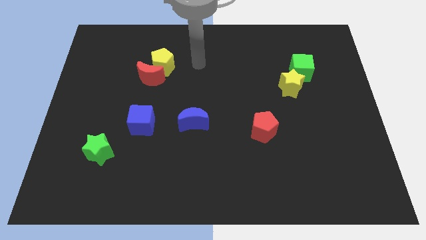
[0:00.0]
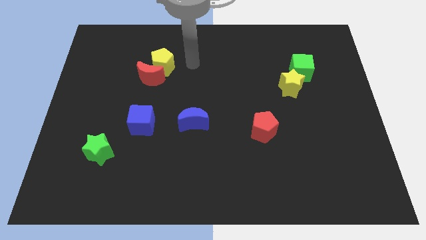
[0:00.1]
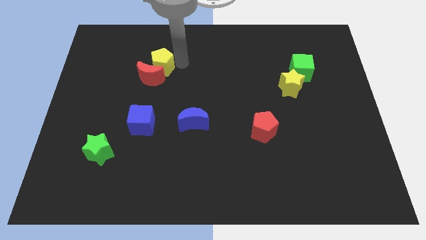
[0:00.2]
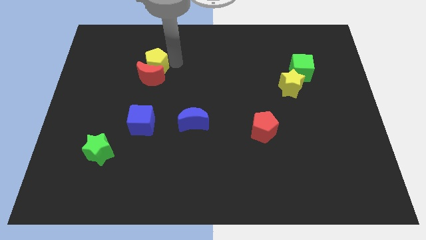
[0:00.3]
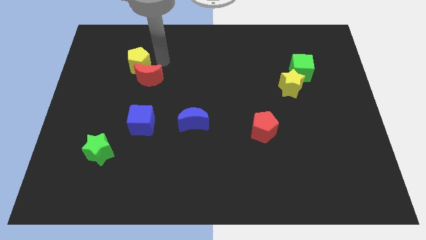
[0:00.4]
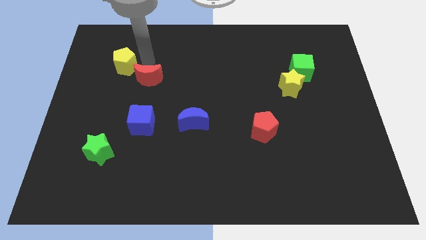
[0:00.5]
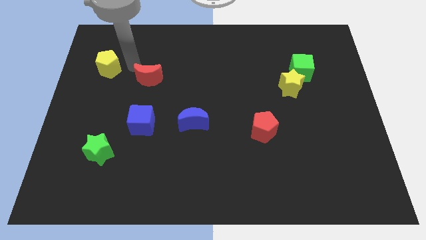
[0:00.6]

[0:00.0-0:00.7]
move the red moon away from the yellow pentagon

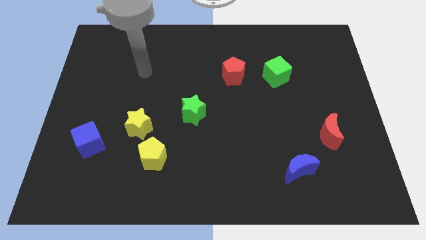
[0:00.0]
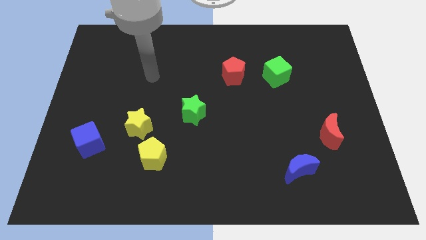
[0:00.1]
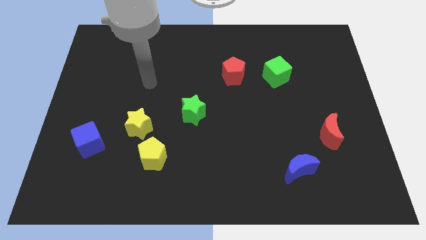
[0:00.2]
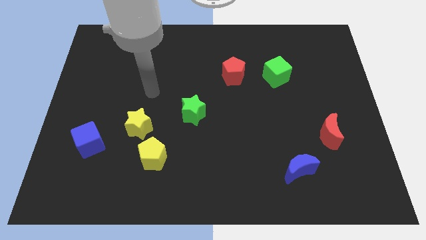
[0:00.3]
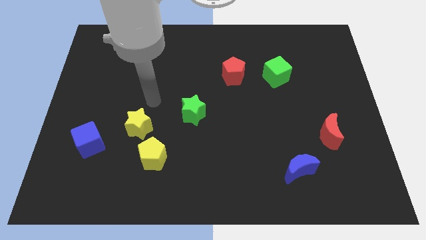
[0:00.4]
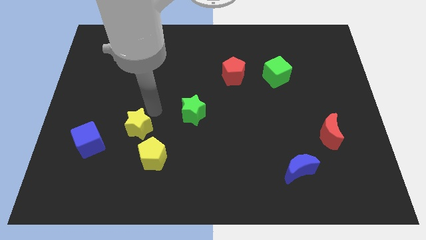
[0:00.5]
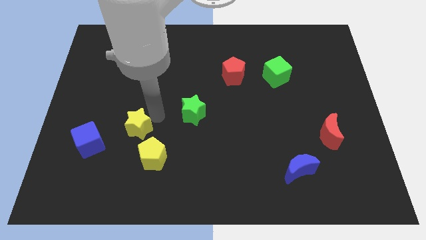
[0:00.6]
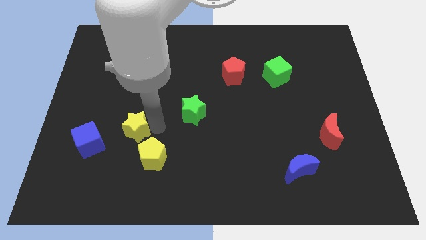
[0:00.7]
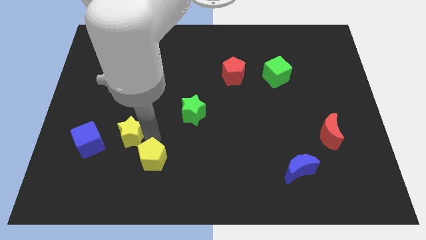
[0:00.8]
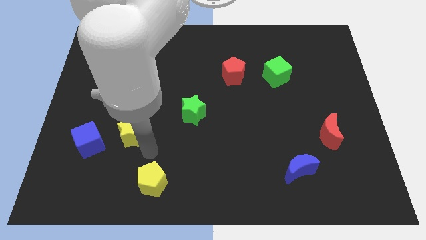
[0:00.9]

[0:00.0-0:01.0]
separate the yellow star from the yellow pentagon

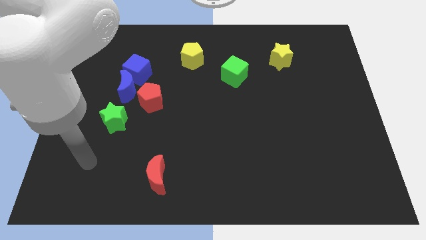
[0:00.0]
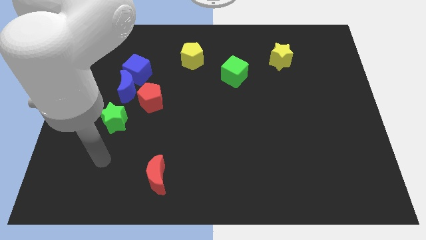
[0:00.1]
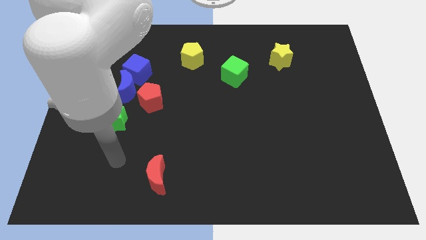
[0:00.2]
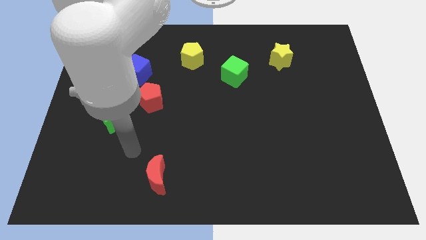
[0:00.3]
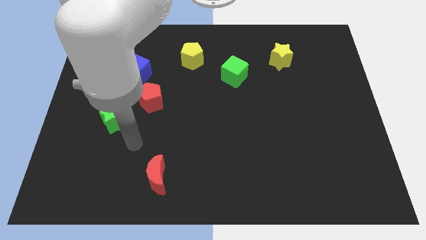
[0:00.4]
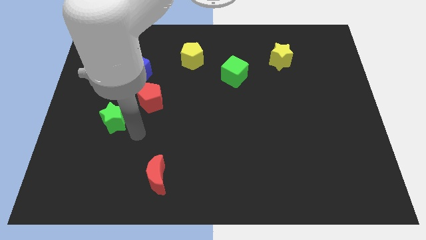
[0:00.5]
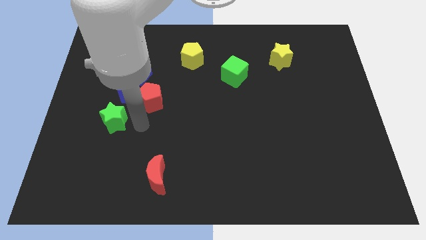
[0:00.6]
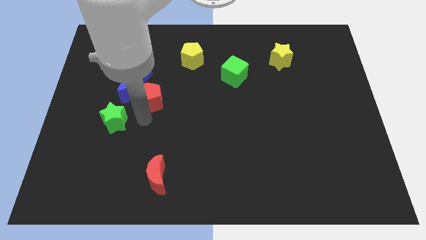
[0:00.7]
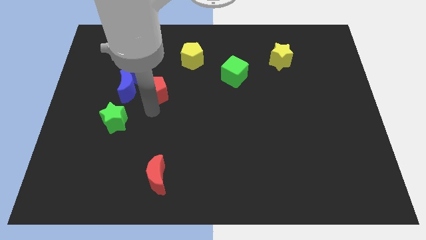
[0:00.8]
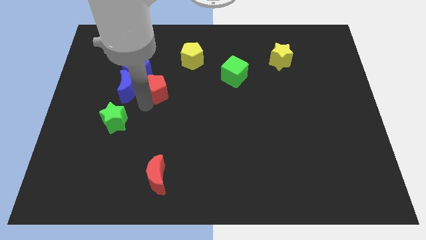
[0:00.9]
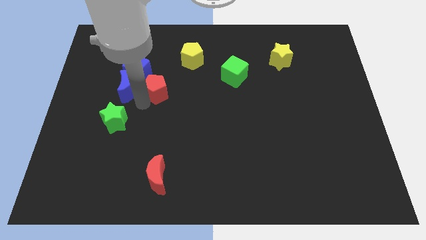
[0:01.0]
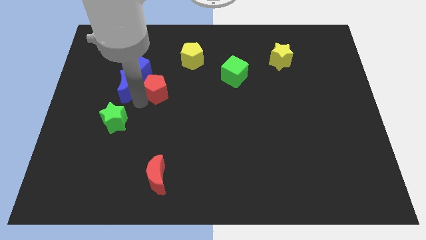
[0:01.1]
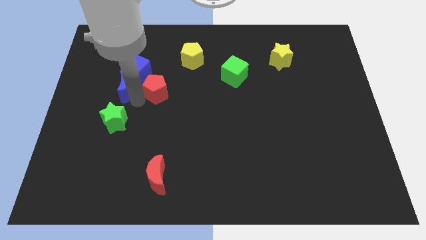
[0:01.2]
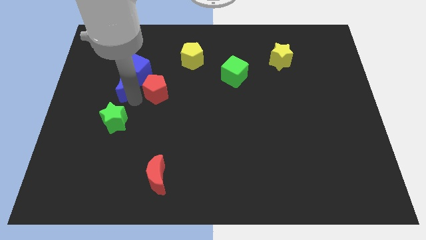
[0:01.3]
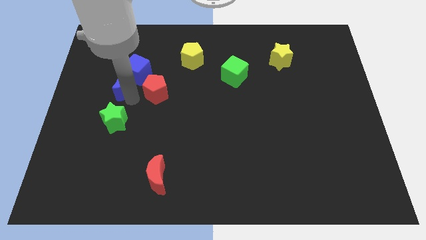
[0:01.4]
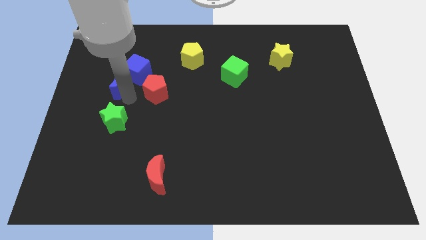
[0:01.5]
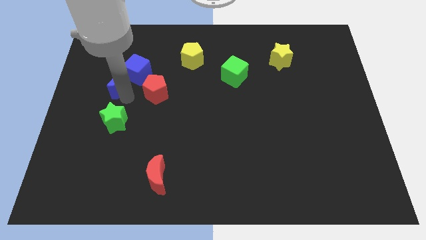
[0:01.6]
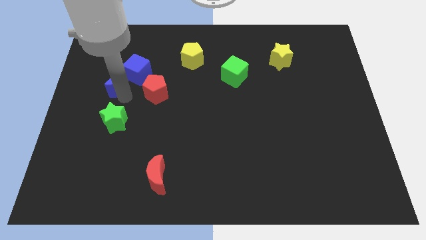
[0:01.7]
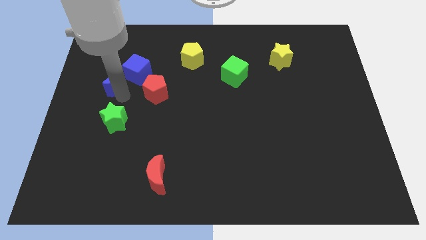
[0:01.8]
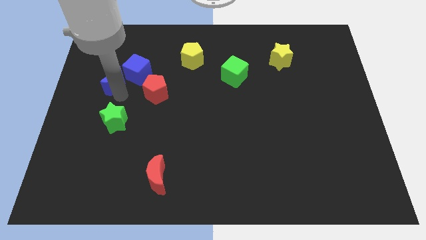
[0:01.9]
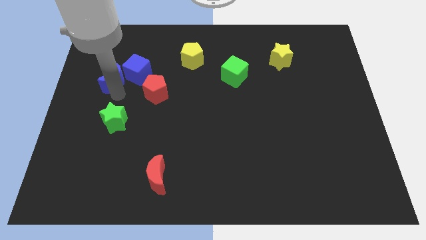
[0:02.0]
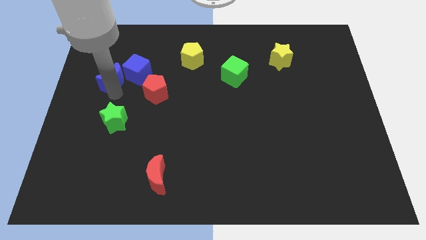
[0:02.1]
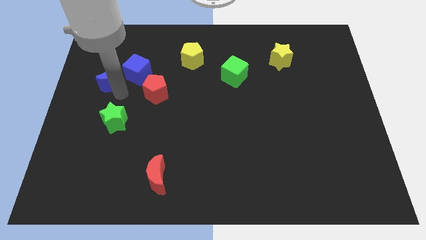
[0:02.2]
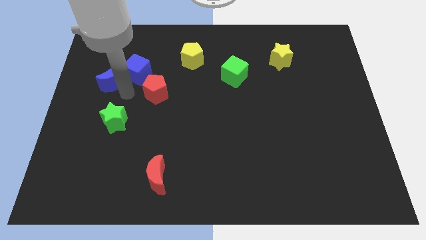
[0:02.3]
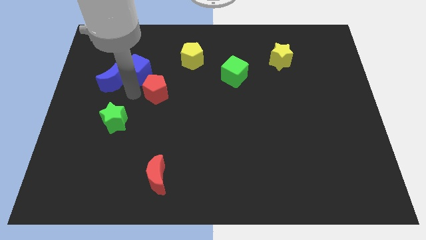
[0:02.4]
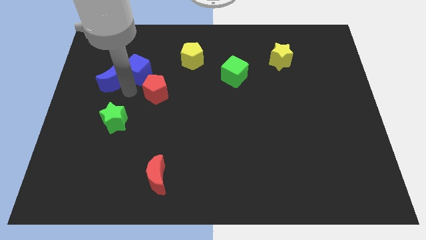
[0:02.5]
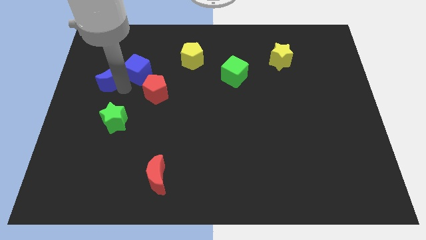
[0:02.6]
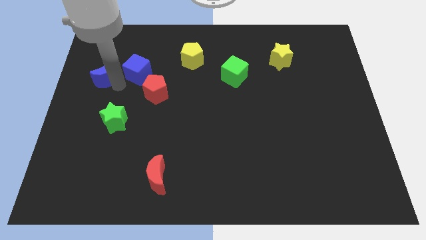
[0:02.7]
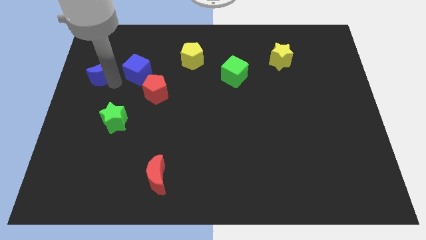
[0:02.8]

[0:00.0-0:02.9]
move the blue moon away from the group of blocks

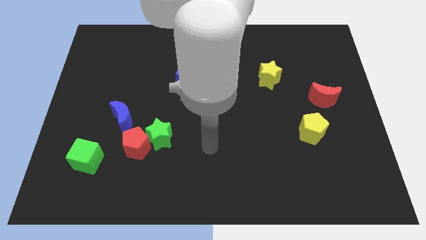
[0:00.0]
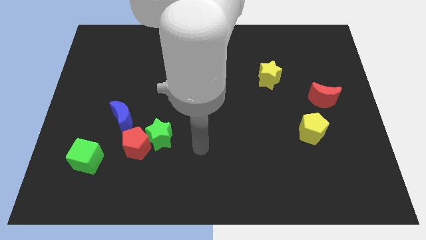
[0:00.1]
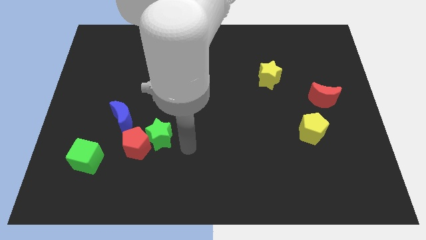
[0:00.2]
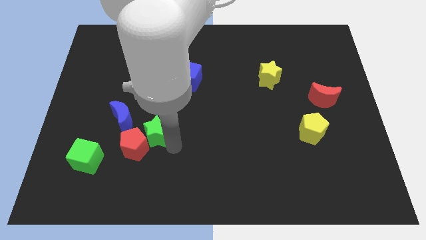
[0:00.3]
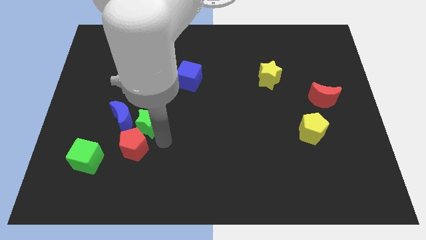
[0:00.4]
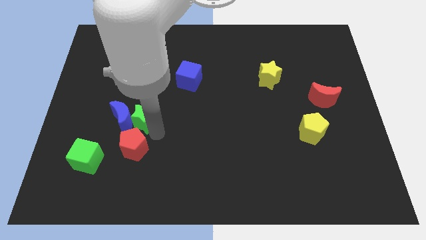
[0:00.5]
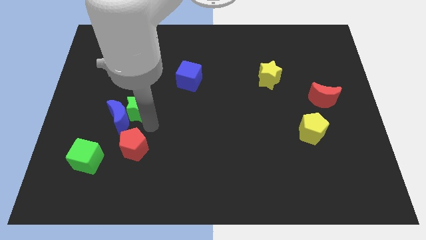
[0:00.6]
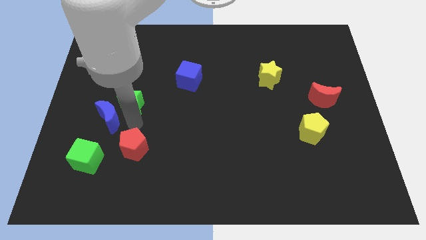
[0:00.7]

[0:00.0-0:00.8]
separate the red pentagon from the green star and blue moon

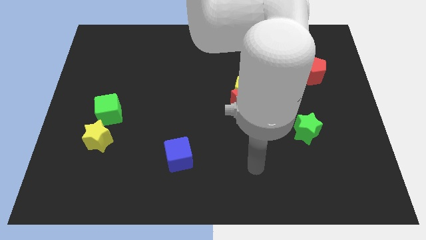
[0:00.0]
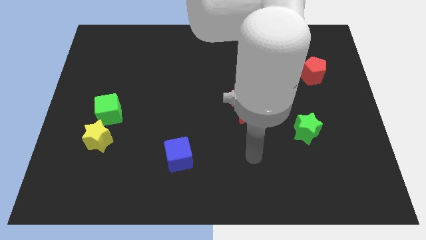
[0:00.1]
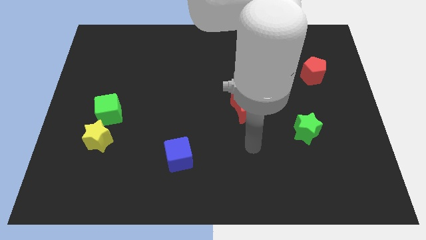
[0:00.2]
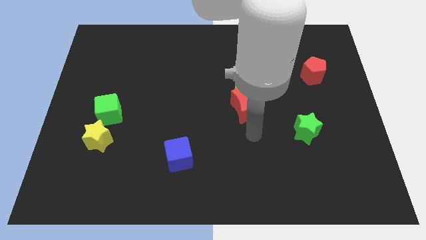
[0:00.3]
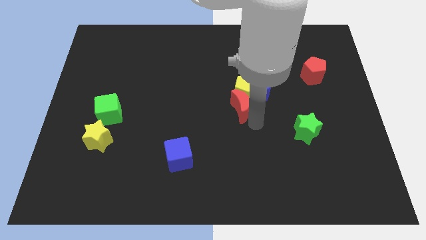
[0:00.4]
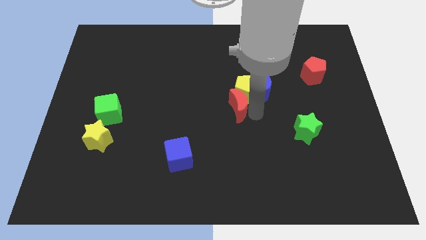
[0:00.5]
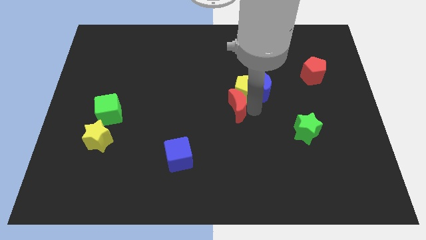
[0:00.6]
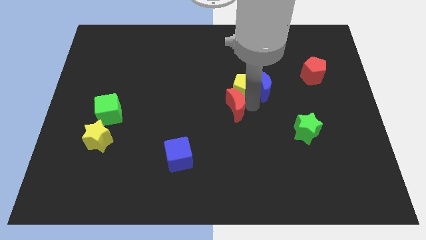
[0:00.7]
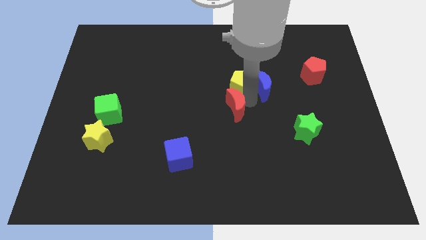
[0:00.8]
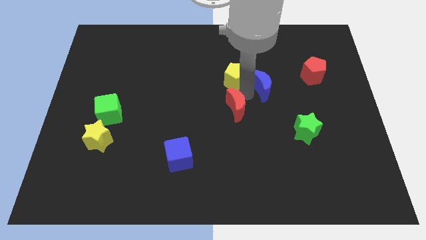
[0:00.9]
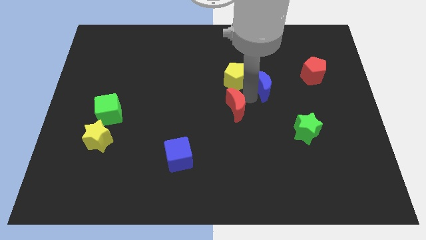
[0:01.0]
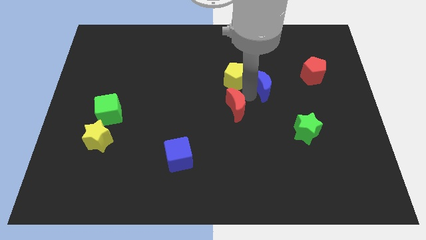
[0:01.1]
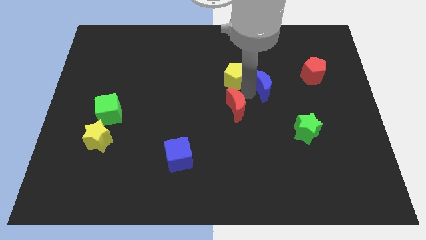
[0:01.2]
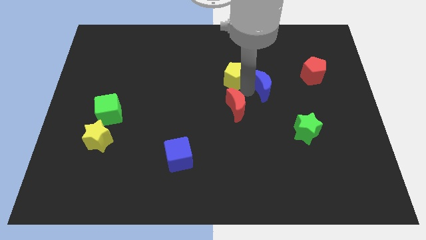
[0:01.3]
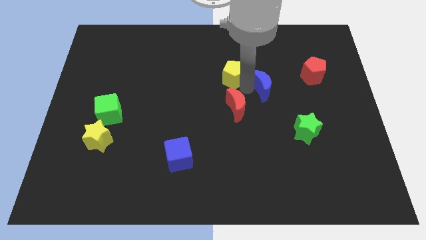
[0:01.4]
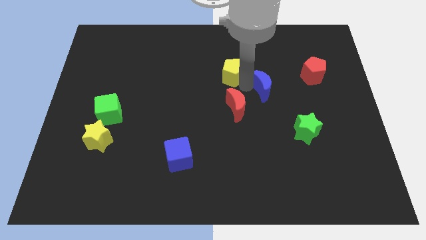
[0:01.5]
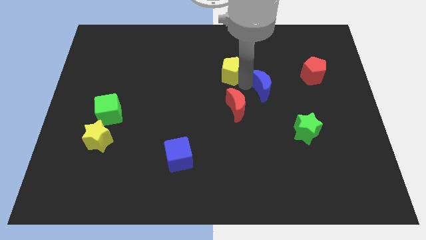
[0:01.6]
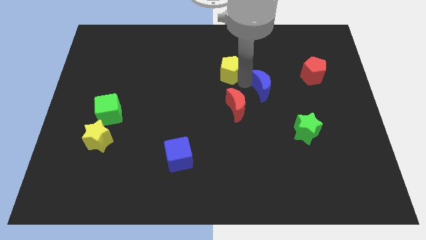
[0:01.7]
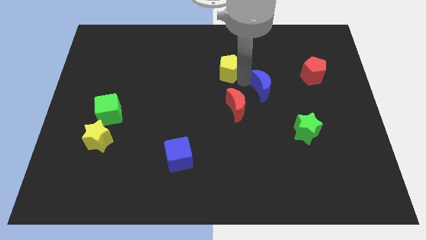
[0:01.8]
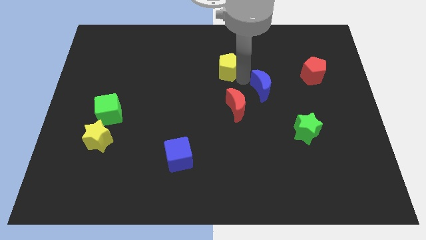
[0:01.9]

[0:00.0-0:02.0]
move the yellow pentagon away from the blue moon and red moon

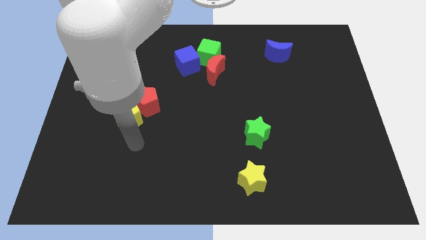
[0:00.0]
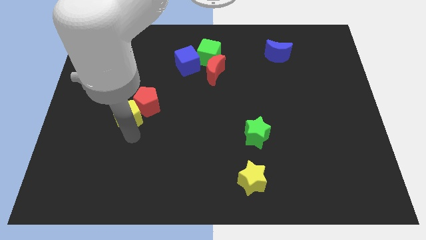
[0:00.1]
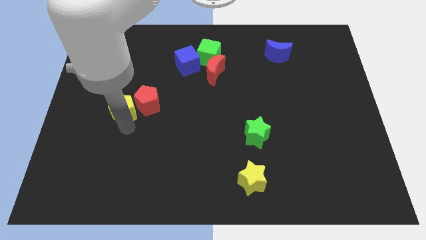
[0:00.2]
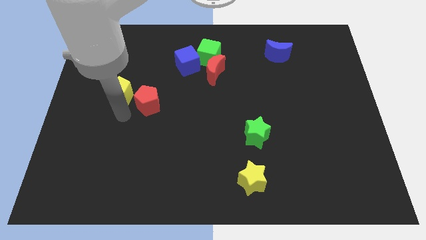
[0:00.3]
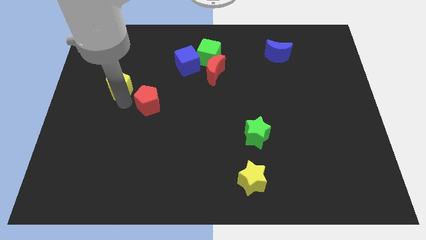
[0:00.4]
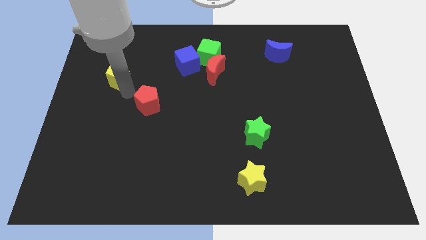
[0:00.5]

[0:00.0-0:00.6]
move the red pentagon away from the yellow pentagon

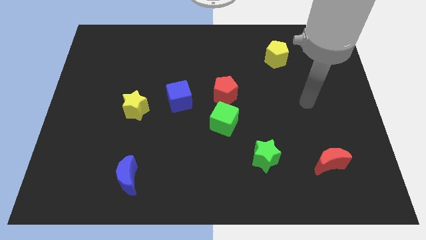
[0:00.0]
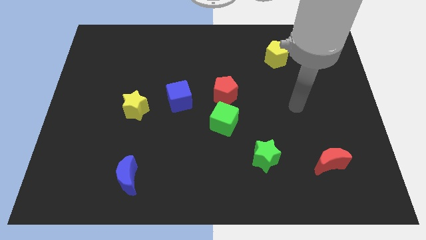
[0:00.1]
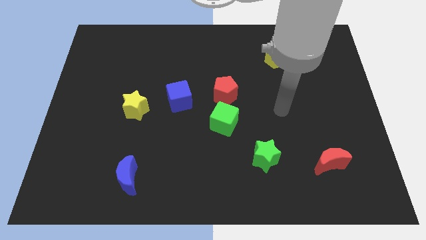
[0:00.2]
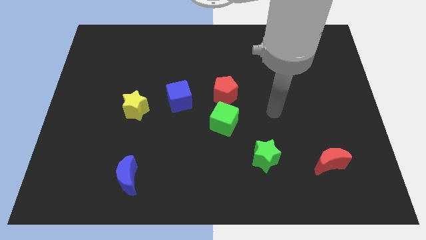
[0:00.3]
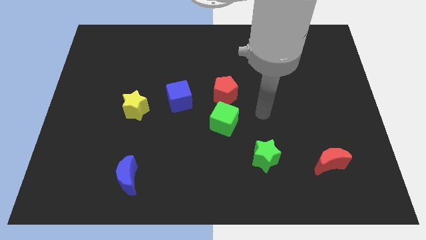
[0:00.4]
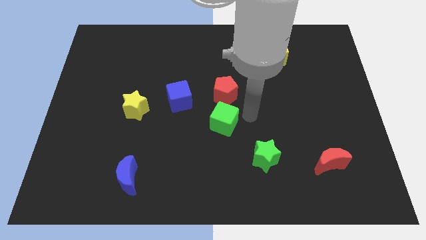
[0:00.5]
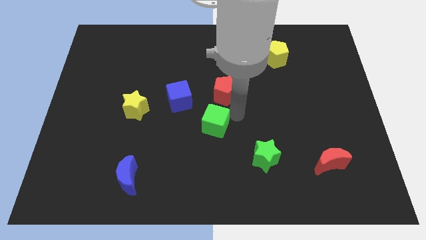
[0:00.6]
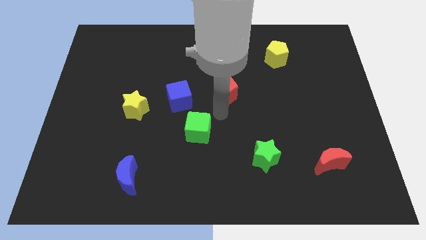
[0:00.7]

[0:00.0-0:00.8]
pull the red pentagon apart from the green cube

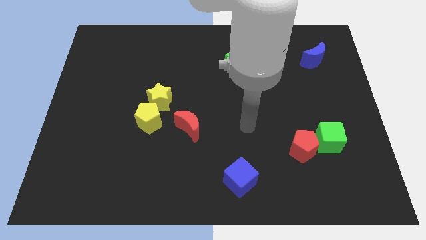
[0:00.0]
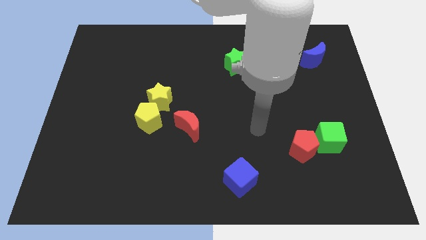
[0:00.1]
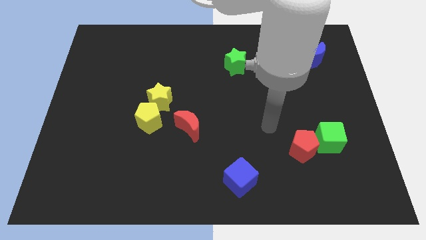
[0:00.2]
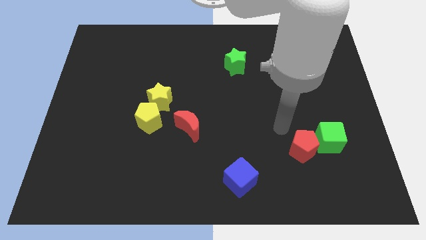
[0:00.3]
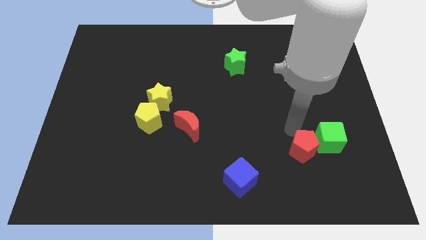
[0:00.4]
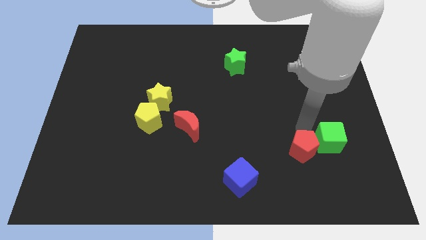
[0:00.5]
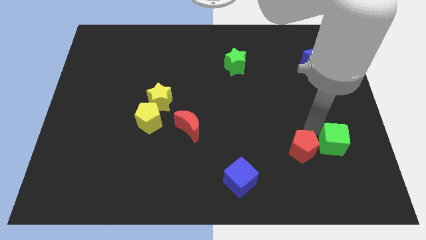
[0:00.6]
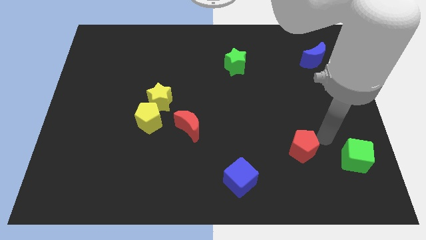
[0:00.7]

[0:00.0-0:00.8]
separate the red pentagon from the green cube
